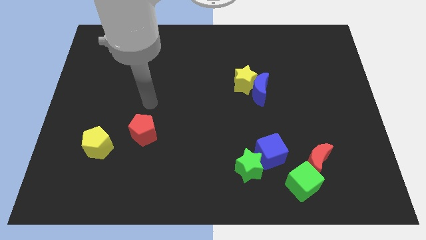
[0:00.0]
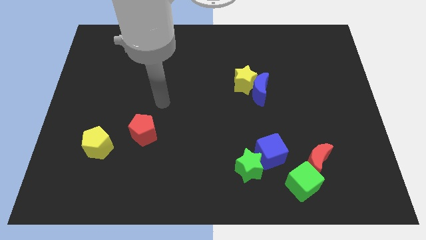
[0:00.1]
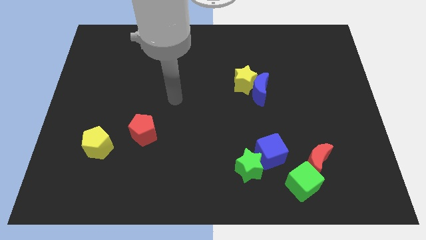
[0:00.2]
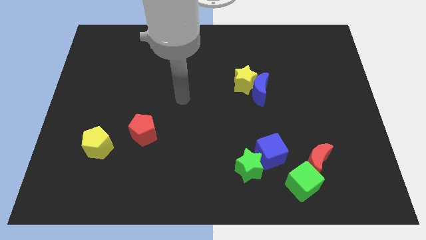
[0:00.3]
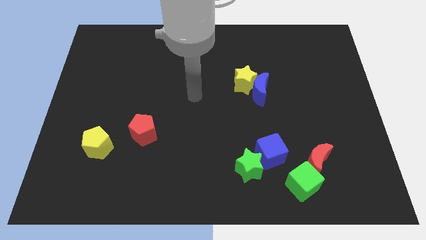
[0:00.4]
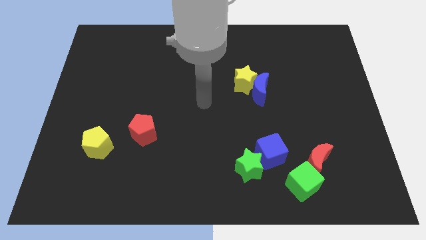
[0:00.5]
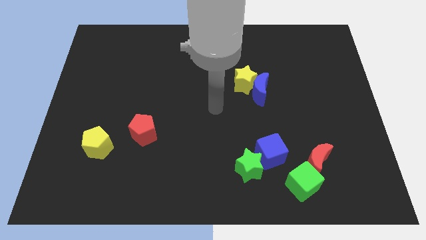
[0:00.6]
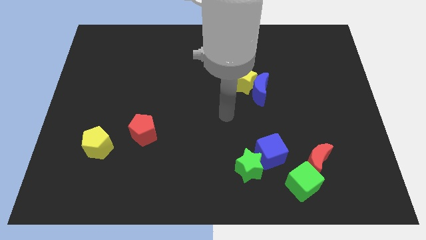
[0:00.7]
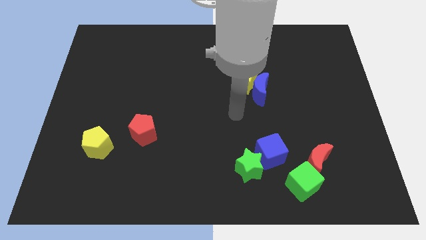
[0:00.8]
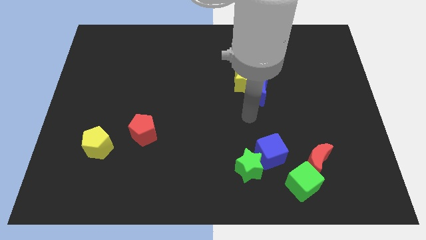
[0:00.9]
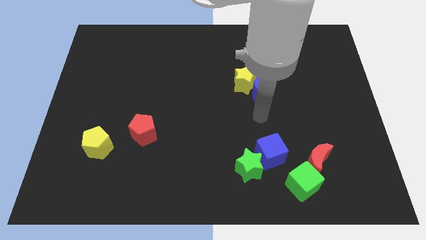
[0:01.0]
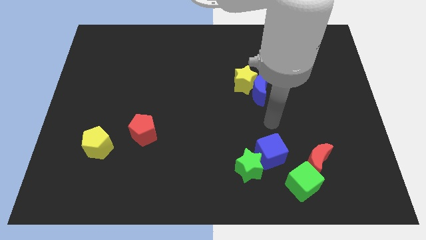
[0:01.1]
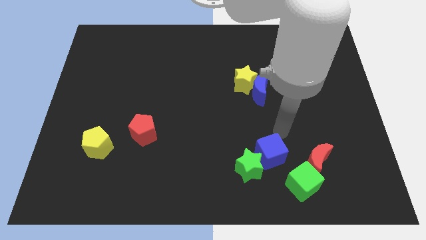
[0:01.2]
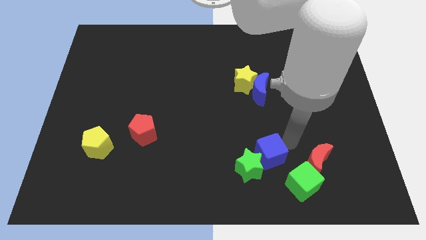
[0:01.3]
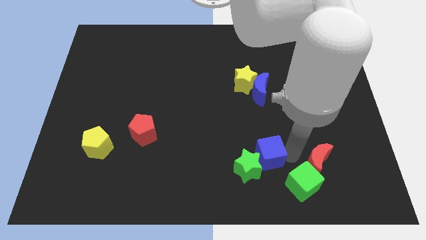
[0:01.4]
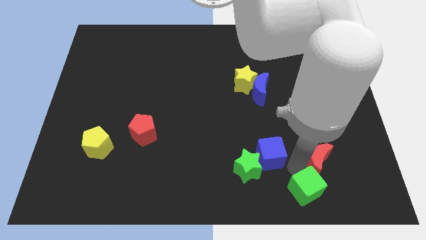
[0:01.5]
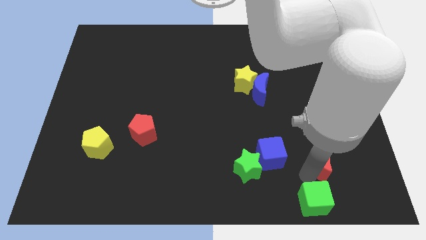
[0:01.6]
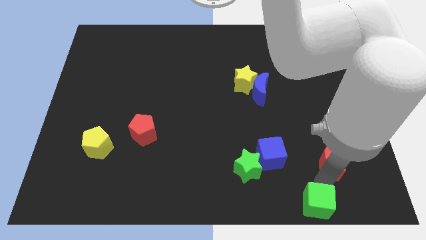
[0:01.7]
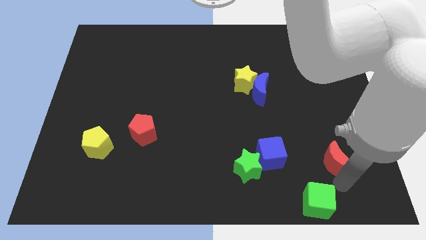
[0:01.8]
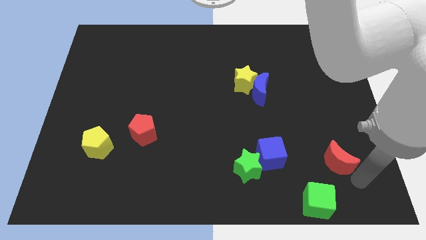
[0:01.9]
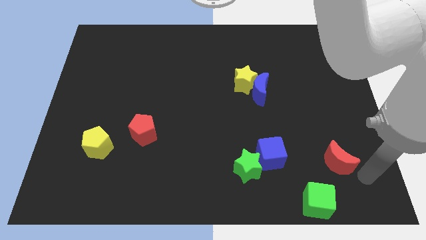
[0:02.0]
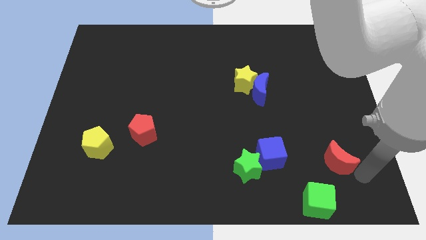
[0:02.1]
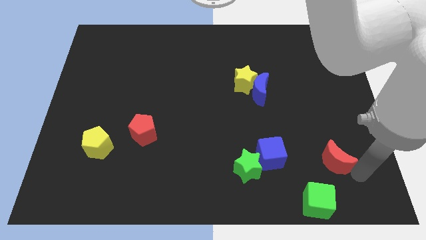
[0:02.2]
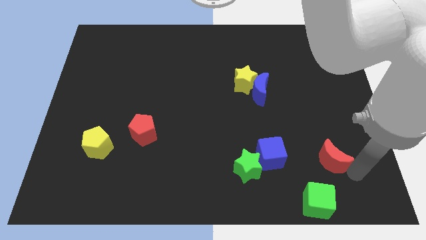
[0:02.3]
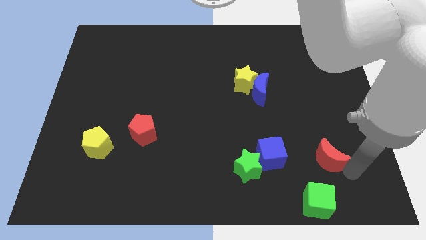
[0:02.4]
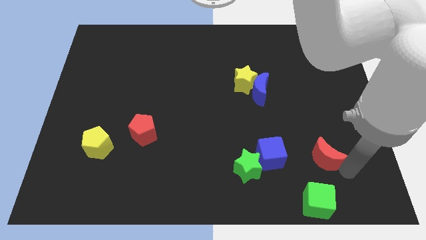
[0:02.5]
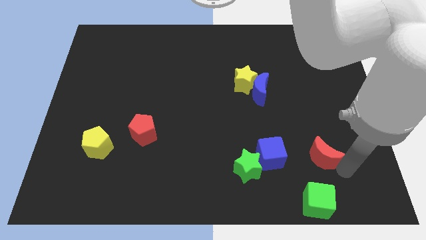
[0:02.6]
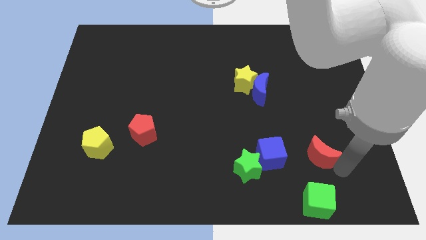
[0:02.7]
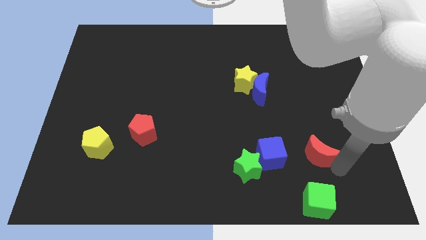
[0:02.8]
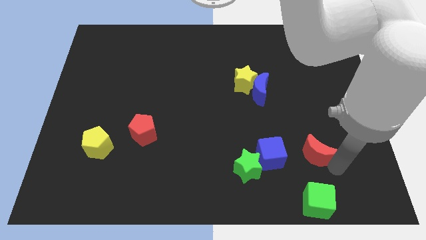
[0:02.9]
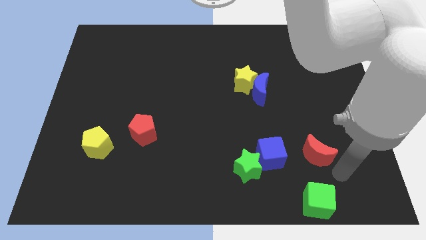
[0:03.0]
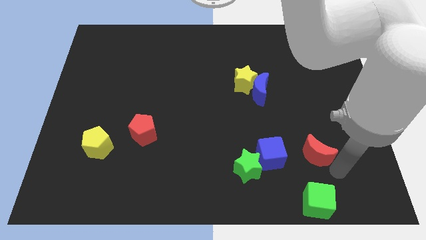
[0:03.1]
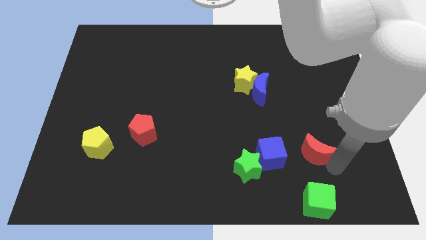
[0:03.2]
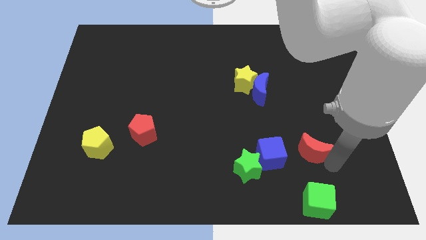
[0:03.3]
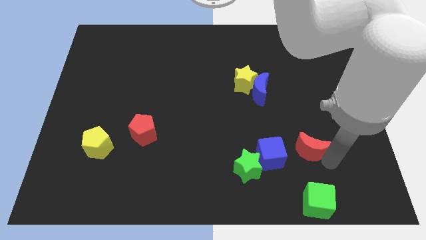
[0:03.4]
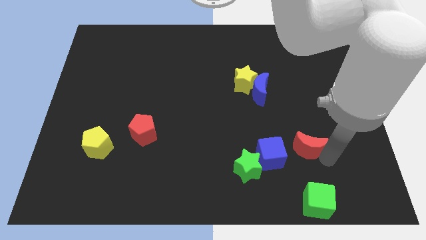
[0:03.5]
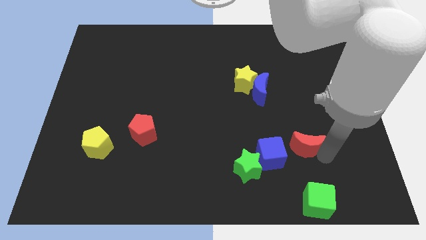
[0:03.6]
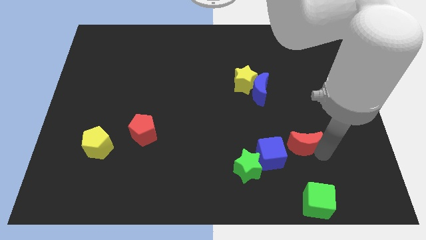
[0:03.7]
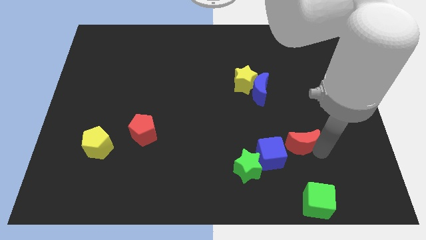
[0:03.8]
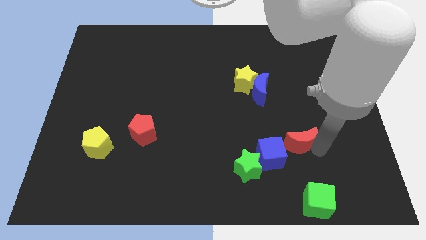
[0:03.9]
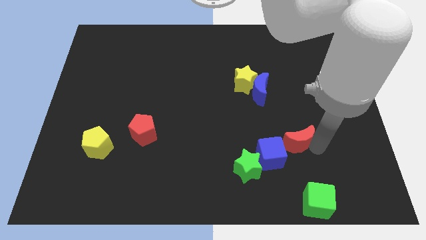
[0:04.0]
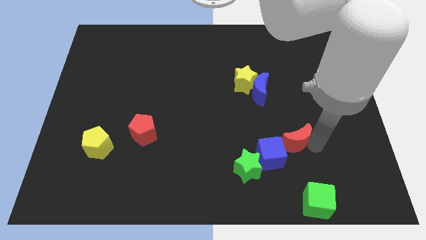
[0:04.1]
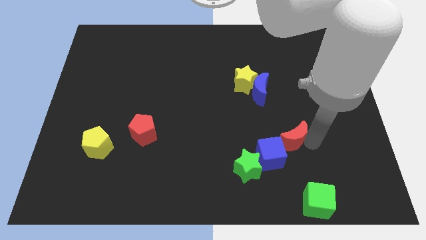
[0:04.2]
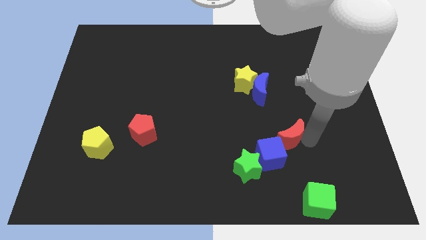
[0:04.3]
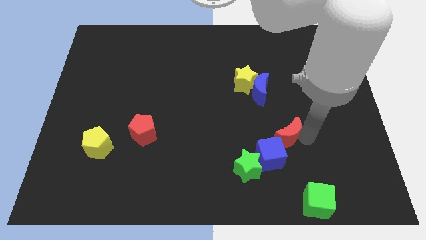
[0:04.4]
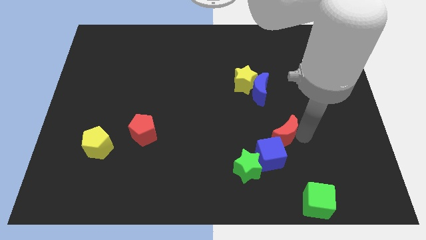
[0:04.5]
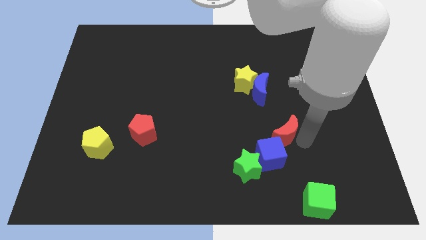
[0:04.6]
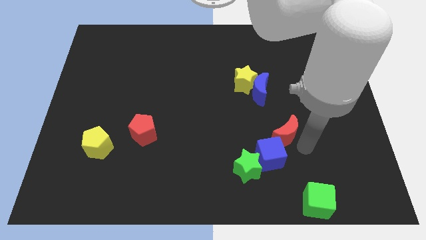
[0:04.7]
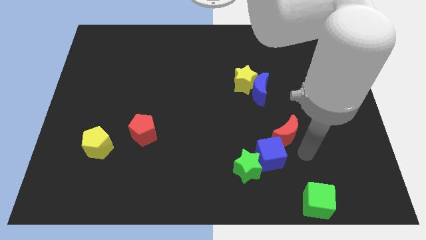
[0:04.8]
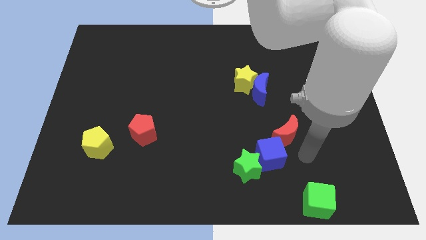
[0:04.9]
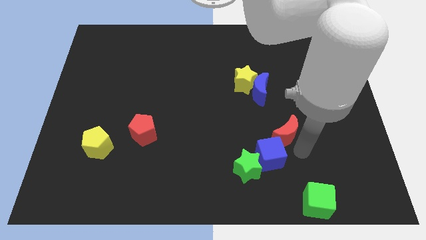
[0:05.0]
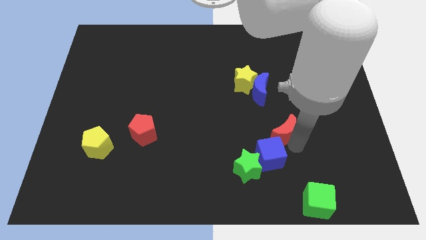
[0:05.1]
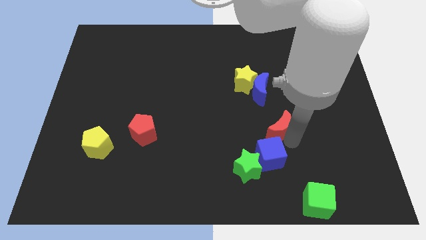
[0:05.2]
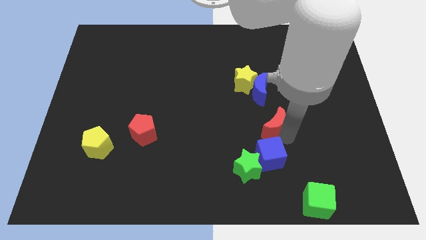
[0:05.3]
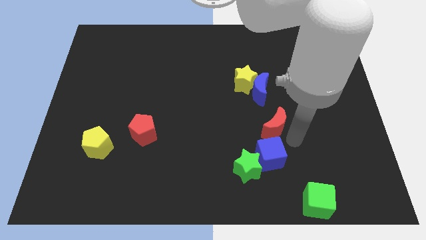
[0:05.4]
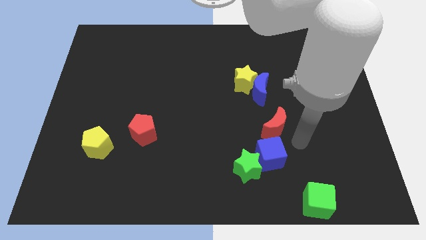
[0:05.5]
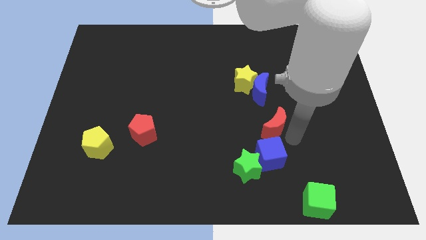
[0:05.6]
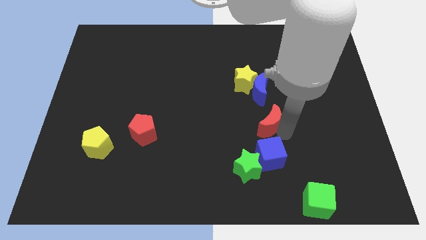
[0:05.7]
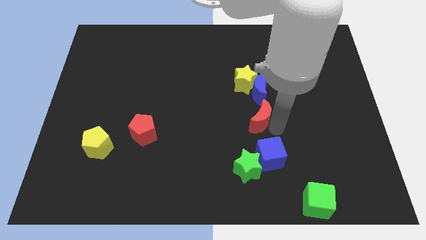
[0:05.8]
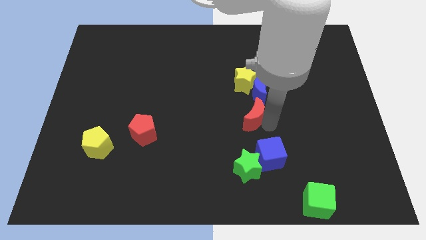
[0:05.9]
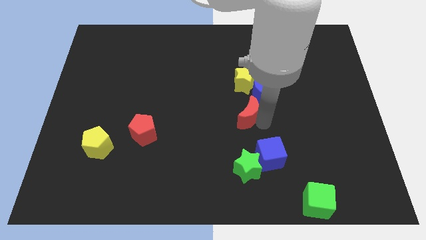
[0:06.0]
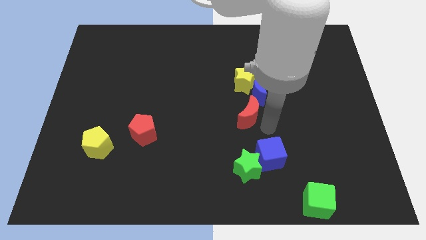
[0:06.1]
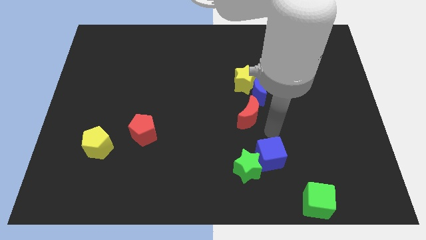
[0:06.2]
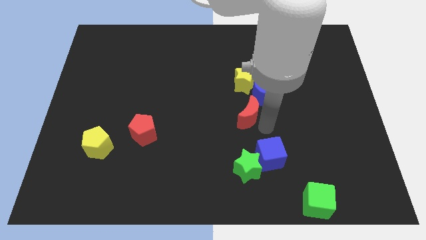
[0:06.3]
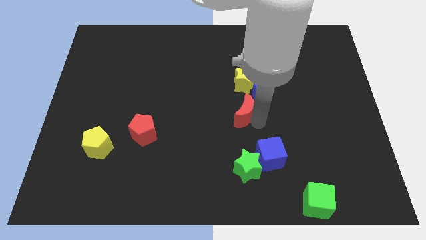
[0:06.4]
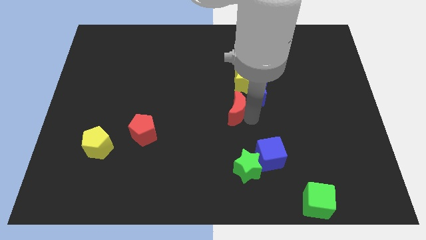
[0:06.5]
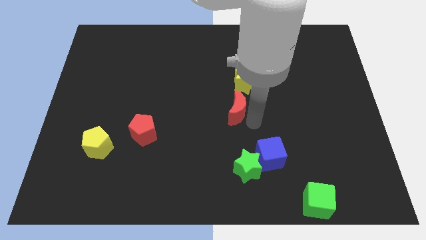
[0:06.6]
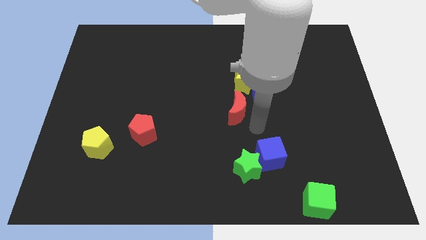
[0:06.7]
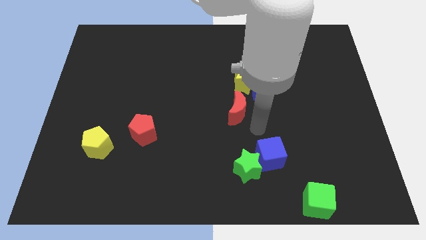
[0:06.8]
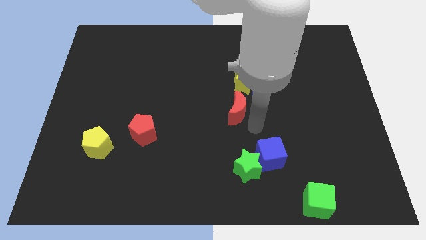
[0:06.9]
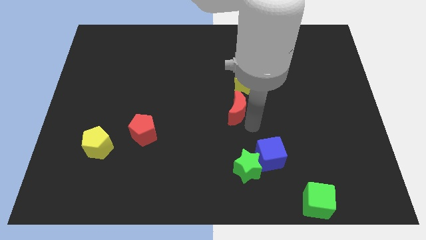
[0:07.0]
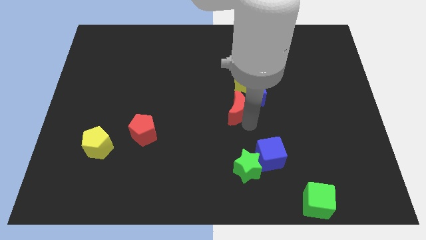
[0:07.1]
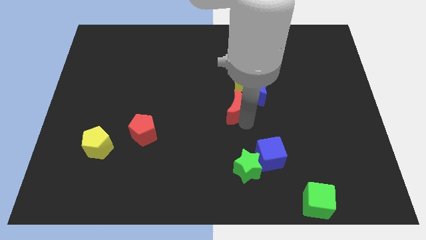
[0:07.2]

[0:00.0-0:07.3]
move the red moon to the bottom left side of the yellow star
